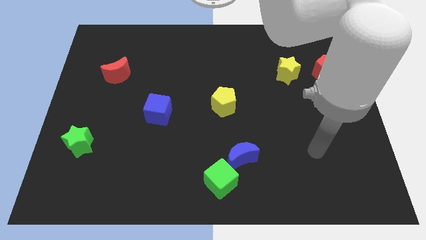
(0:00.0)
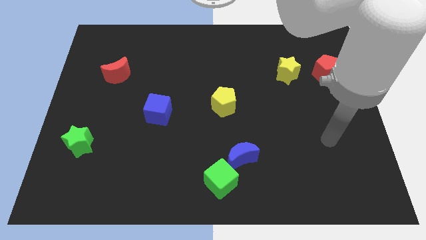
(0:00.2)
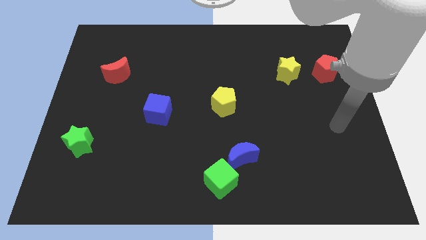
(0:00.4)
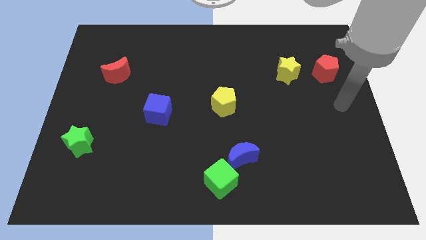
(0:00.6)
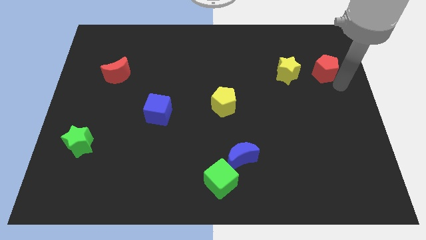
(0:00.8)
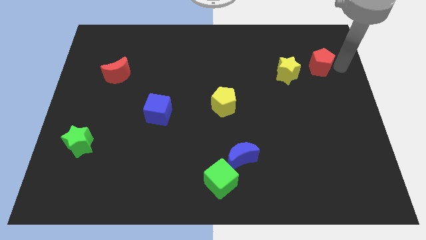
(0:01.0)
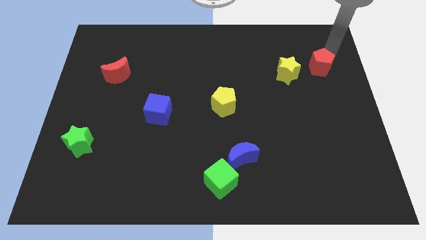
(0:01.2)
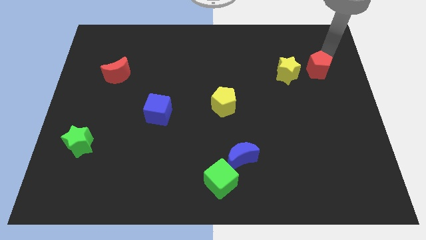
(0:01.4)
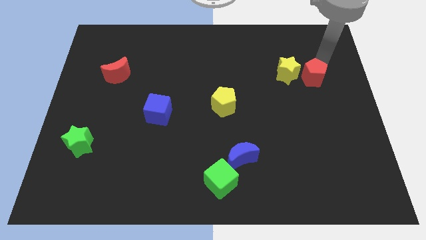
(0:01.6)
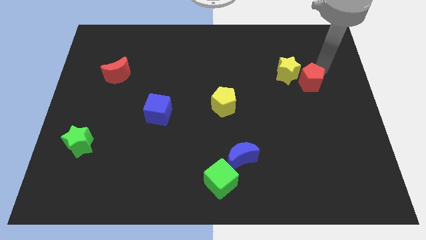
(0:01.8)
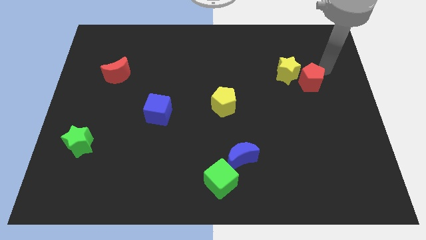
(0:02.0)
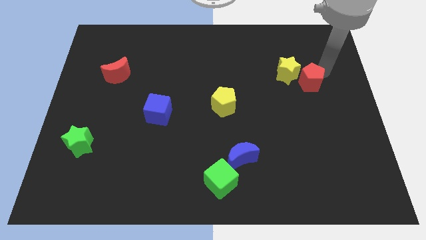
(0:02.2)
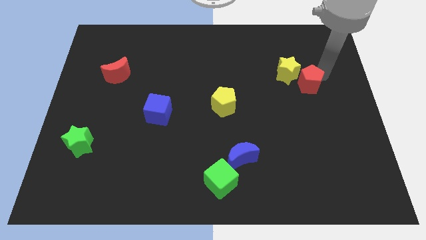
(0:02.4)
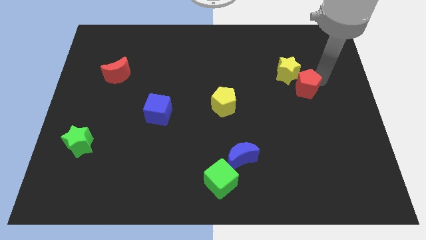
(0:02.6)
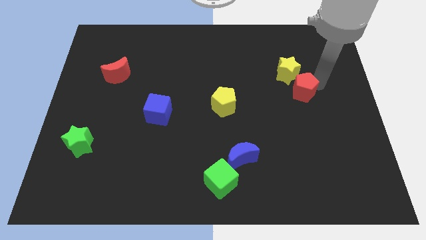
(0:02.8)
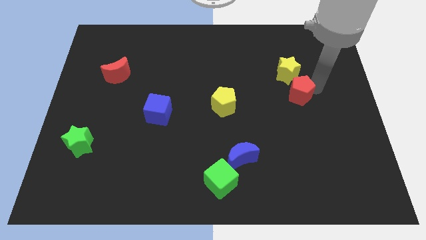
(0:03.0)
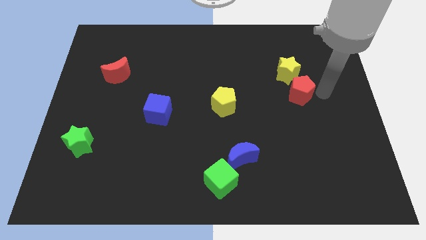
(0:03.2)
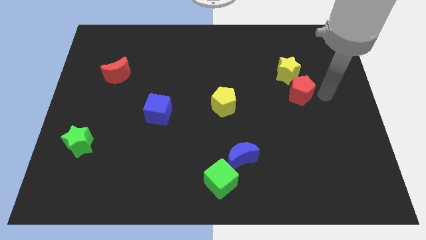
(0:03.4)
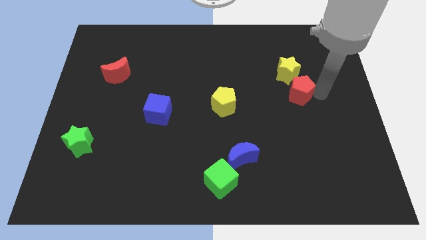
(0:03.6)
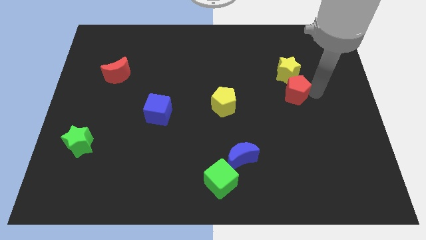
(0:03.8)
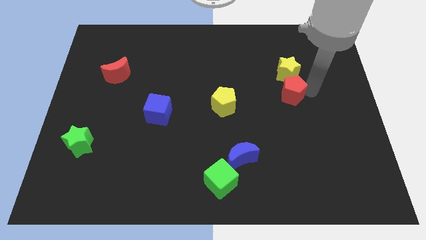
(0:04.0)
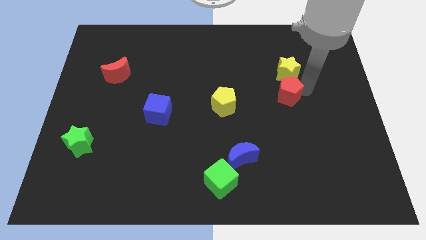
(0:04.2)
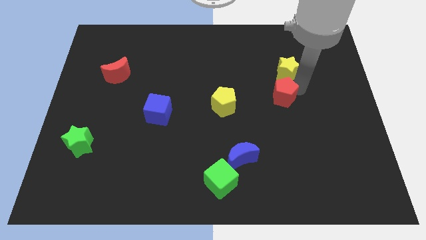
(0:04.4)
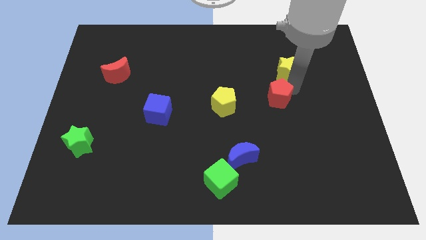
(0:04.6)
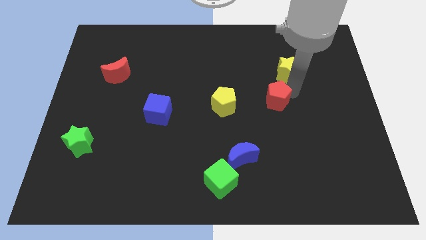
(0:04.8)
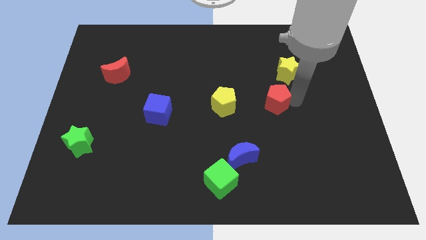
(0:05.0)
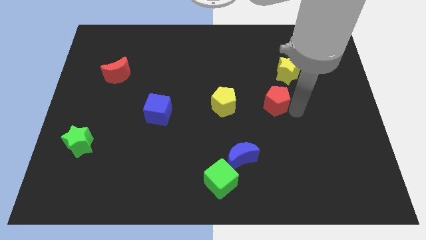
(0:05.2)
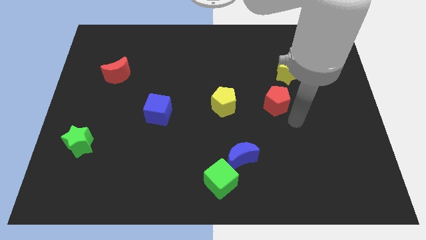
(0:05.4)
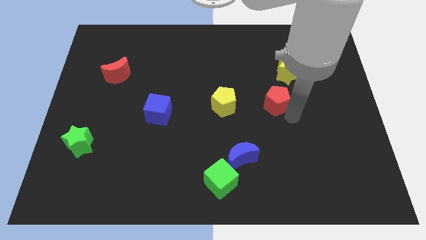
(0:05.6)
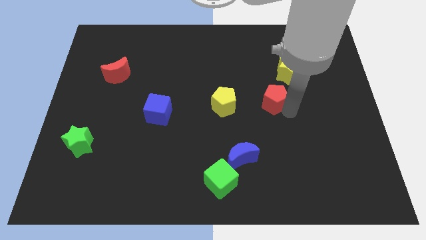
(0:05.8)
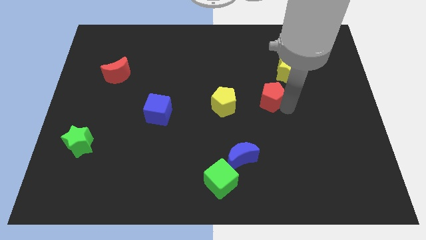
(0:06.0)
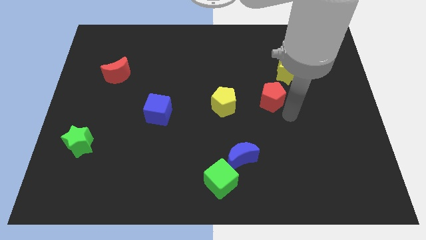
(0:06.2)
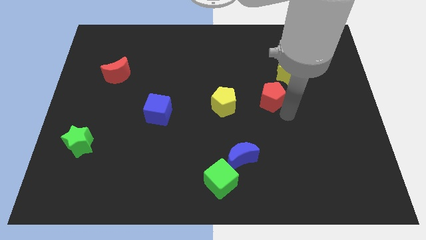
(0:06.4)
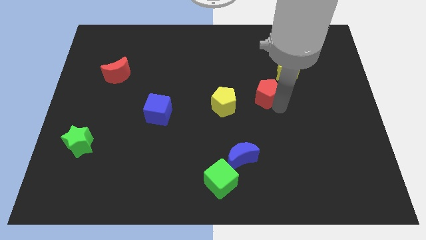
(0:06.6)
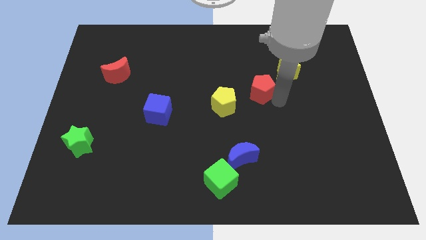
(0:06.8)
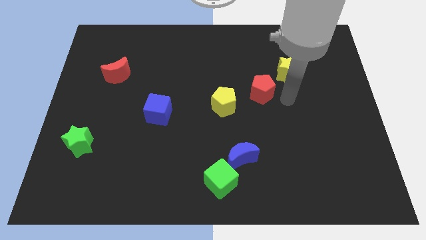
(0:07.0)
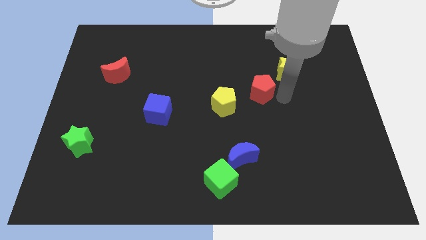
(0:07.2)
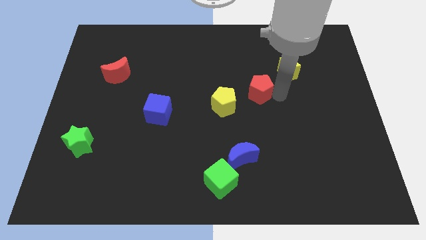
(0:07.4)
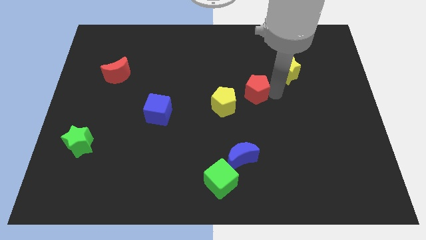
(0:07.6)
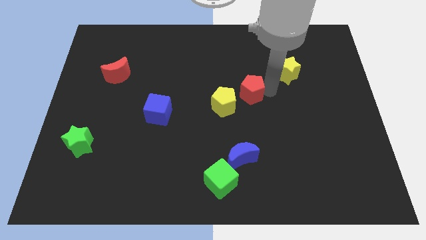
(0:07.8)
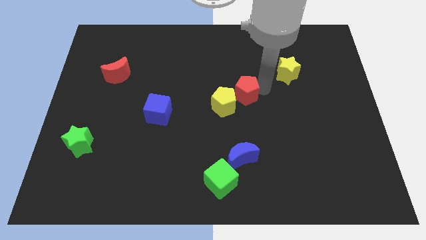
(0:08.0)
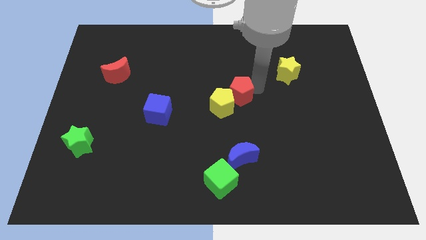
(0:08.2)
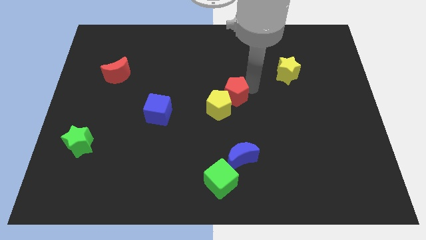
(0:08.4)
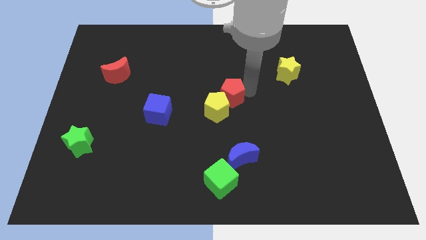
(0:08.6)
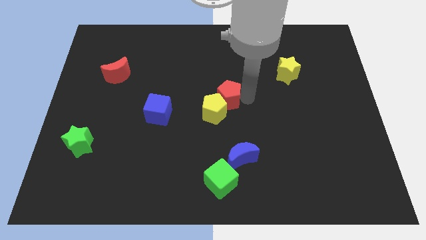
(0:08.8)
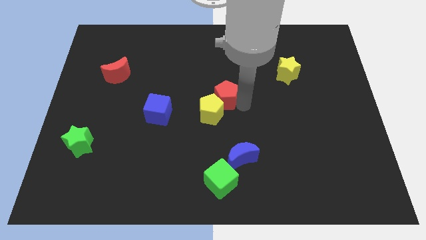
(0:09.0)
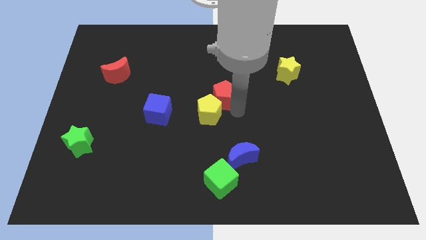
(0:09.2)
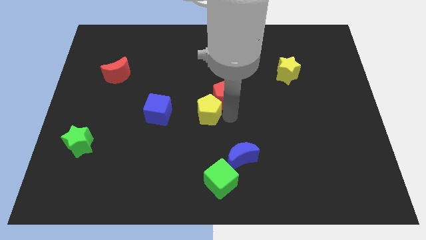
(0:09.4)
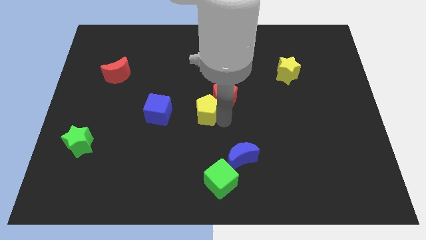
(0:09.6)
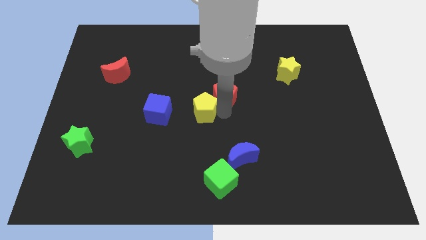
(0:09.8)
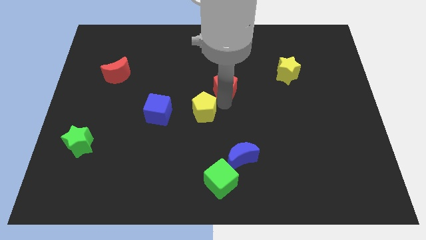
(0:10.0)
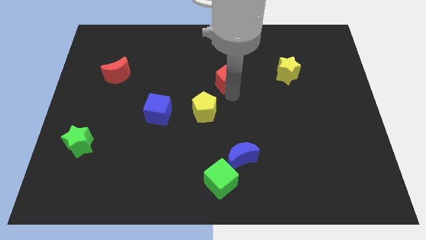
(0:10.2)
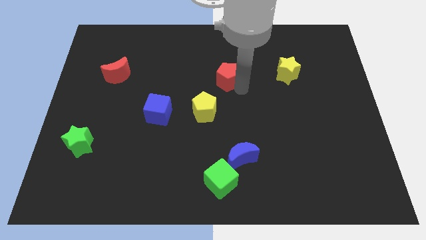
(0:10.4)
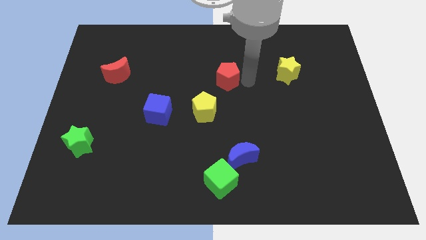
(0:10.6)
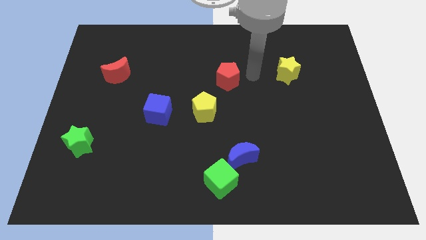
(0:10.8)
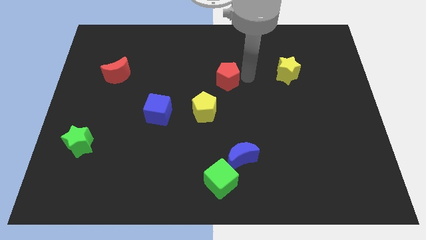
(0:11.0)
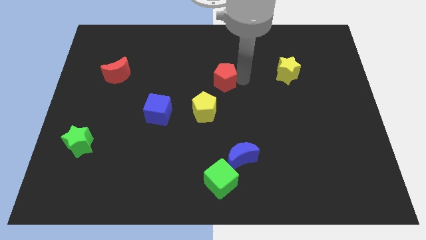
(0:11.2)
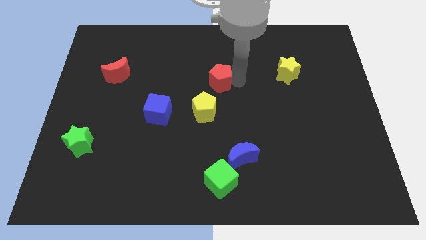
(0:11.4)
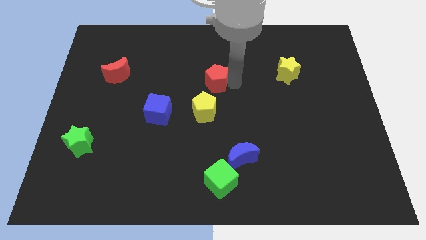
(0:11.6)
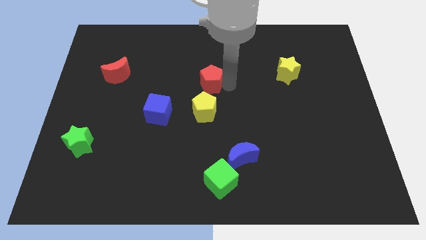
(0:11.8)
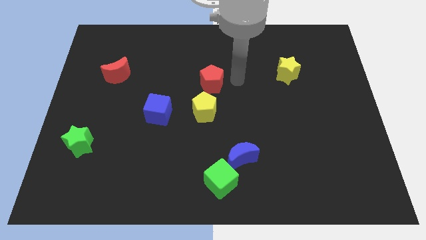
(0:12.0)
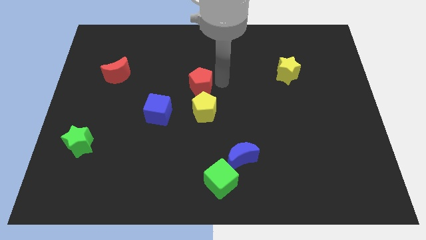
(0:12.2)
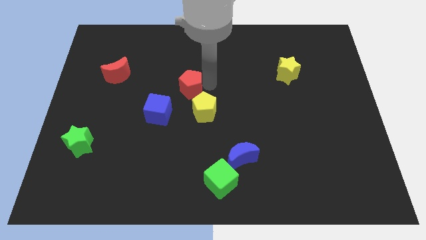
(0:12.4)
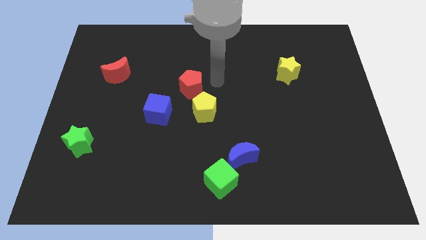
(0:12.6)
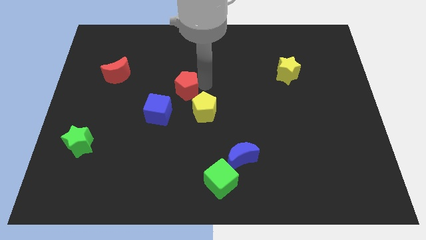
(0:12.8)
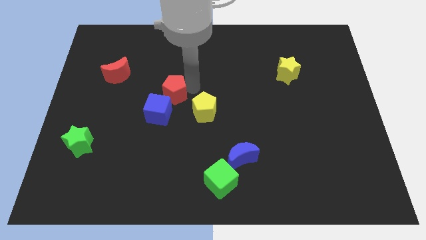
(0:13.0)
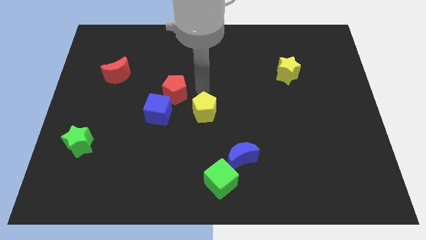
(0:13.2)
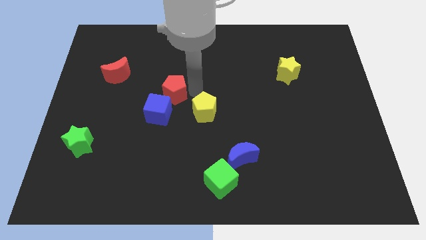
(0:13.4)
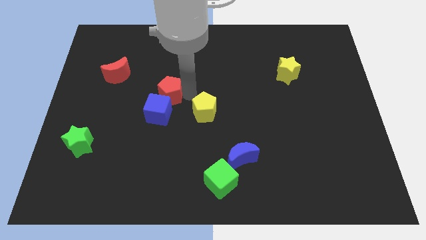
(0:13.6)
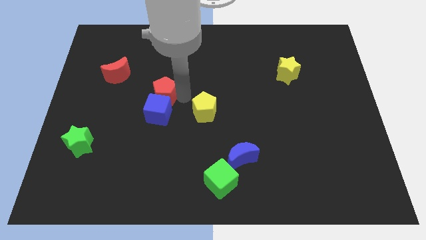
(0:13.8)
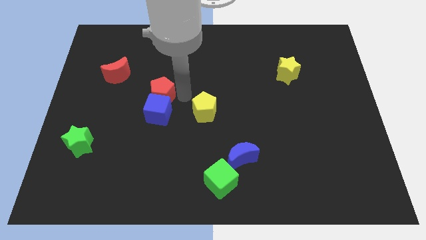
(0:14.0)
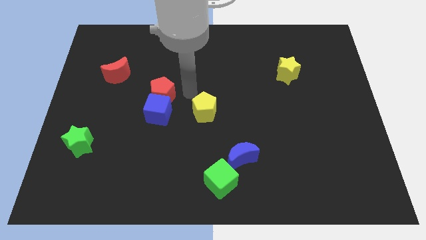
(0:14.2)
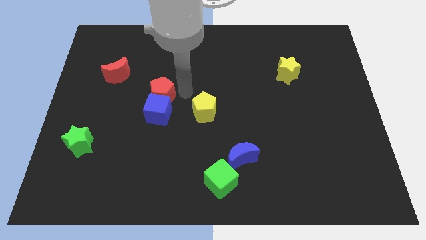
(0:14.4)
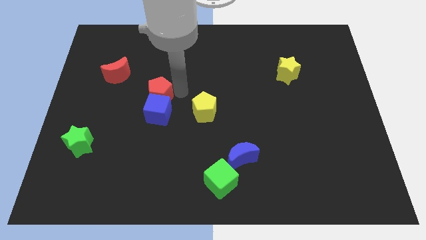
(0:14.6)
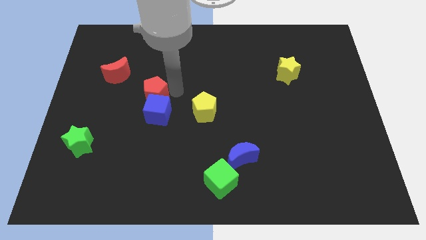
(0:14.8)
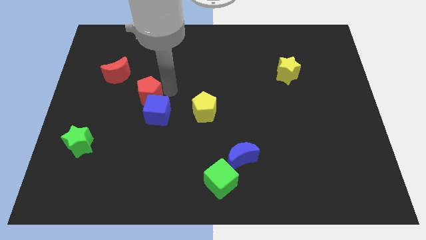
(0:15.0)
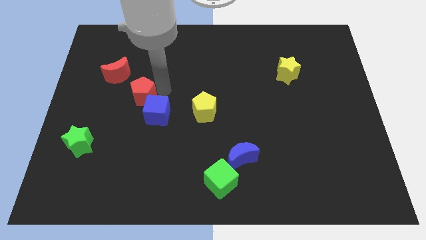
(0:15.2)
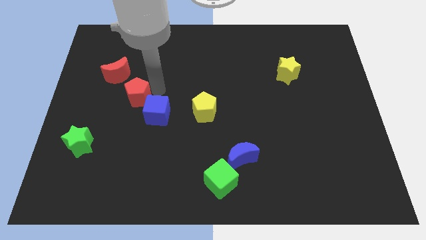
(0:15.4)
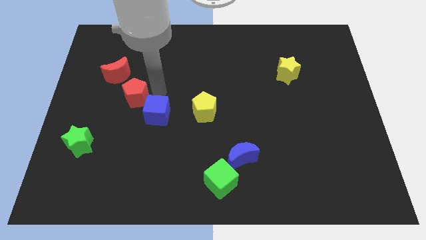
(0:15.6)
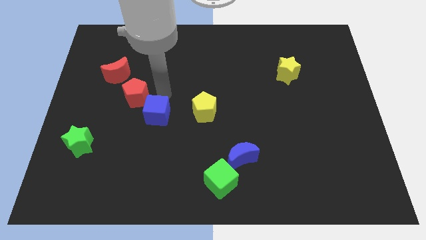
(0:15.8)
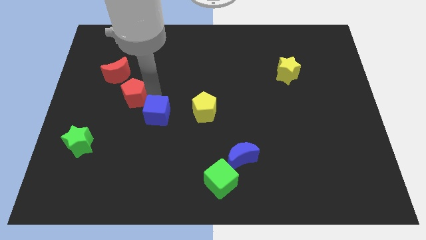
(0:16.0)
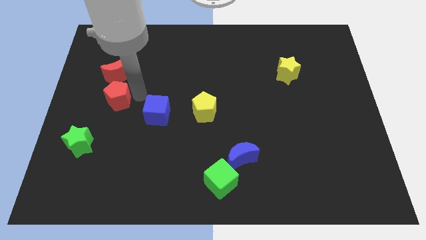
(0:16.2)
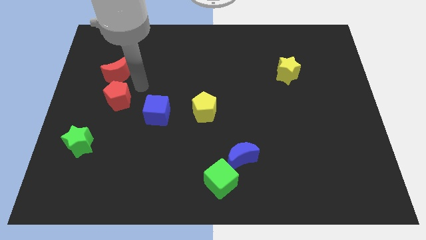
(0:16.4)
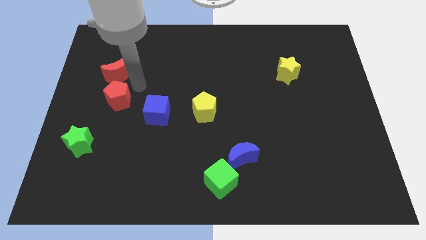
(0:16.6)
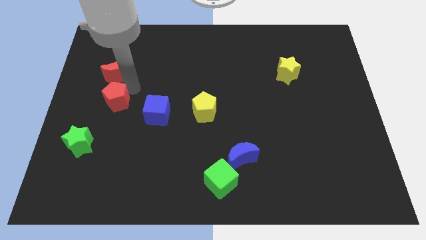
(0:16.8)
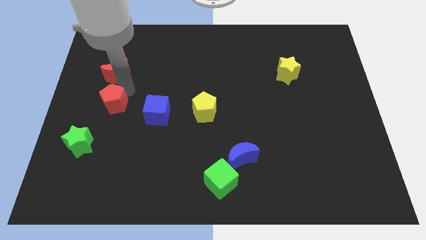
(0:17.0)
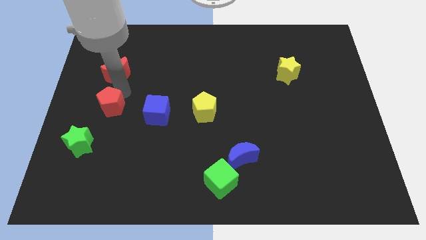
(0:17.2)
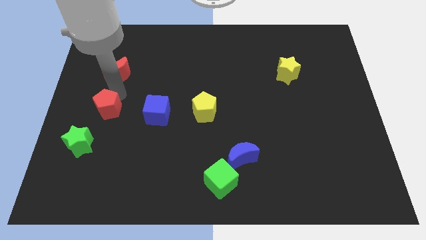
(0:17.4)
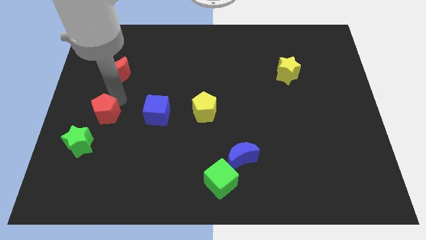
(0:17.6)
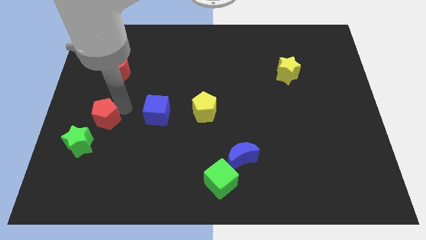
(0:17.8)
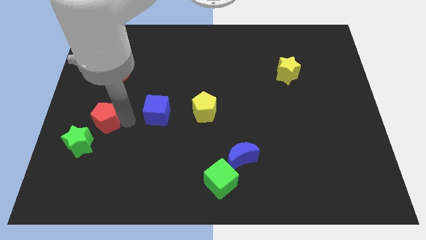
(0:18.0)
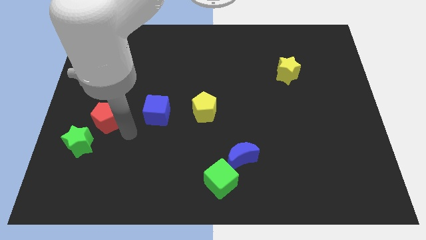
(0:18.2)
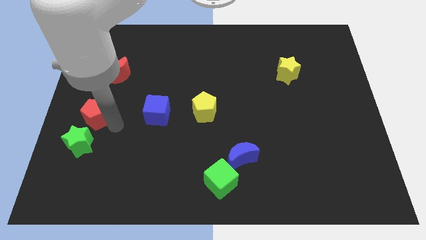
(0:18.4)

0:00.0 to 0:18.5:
put the red pentagon to the center left
